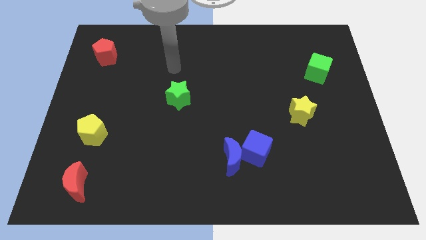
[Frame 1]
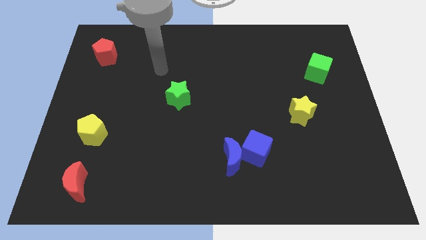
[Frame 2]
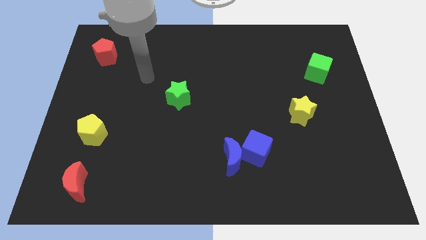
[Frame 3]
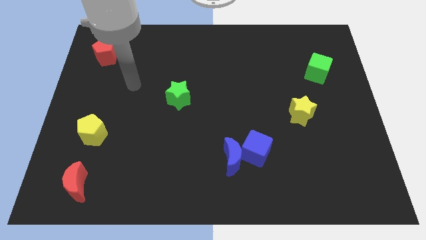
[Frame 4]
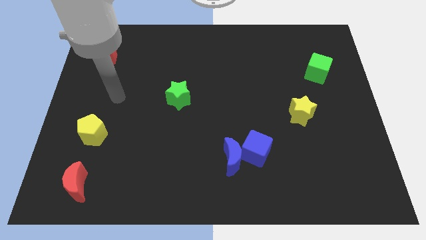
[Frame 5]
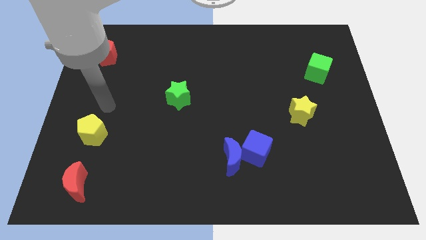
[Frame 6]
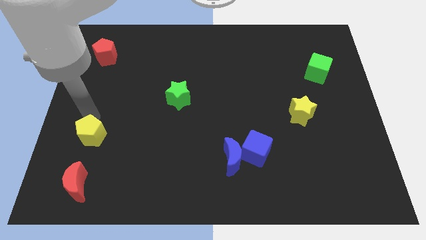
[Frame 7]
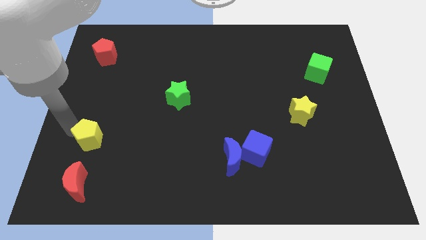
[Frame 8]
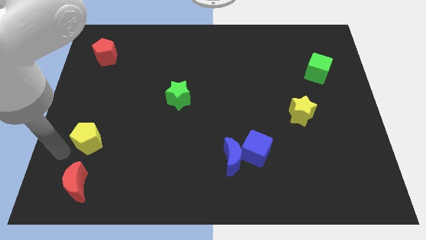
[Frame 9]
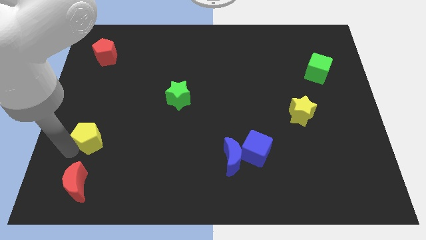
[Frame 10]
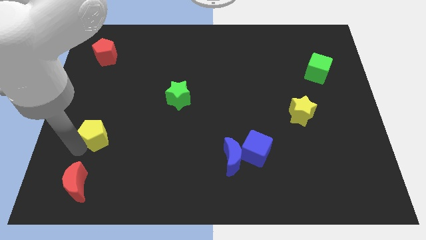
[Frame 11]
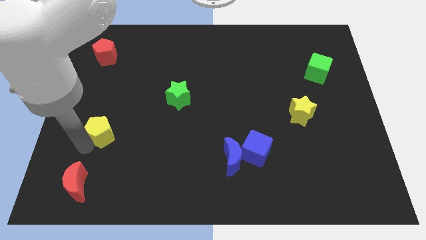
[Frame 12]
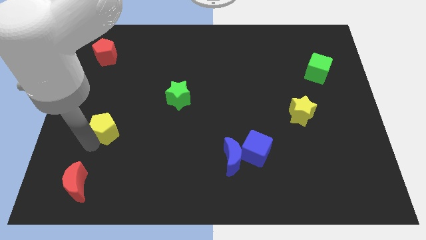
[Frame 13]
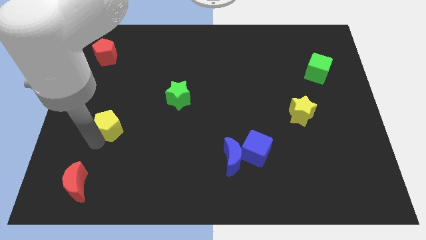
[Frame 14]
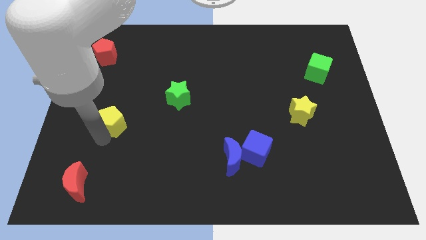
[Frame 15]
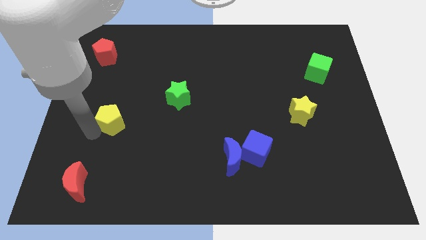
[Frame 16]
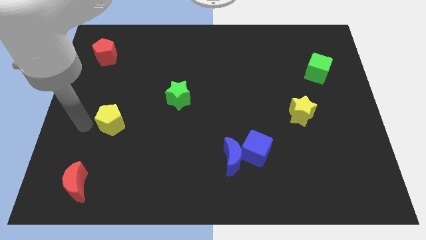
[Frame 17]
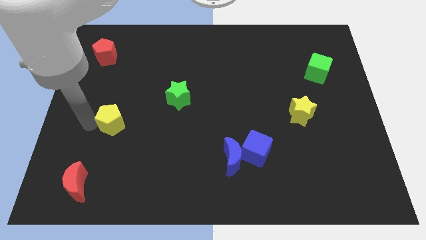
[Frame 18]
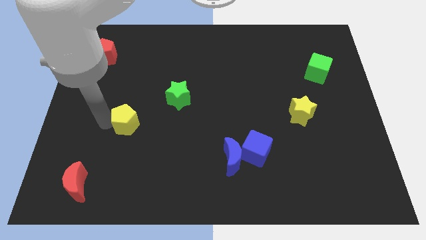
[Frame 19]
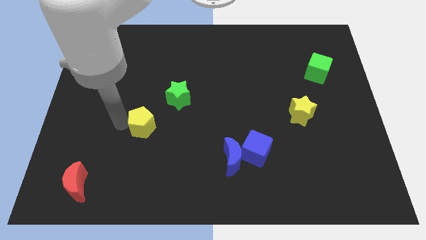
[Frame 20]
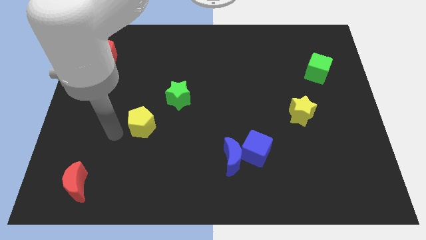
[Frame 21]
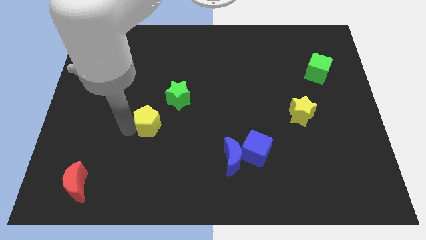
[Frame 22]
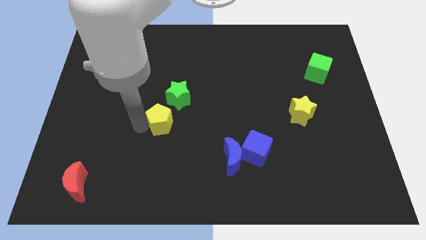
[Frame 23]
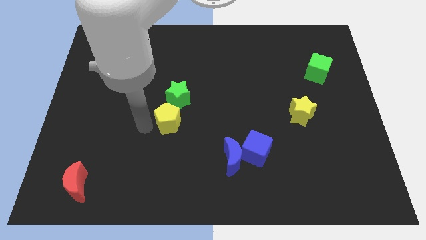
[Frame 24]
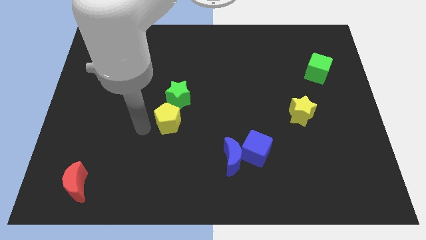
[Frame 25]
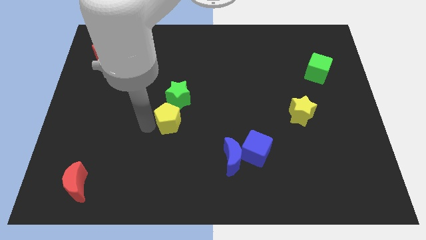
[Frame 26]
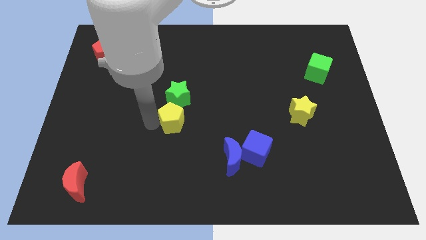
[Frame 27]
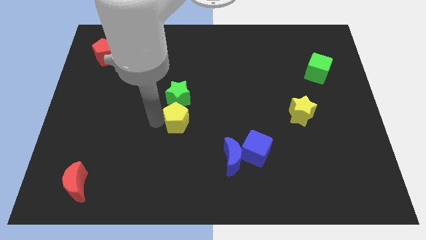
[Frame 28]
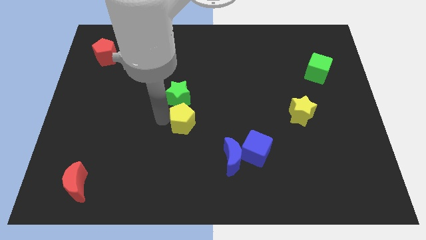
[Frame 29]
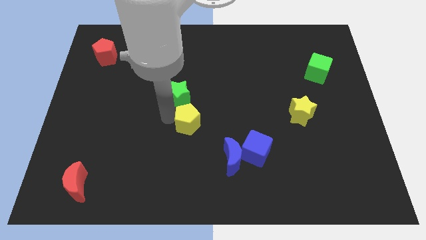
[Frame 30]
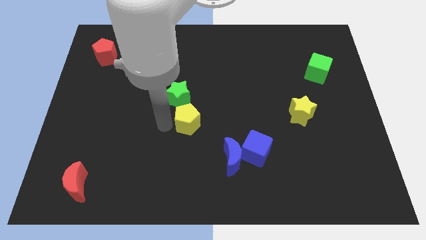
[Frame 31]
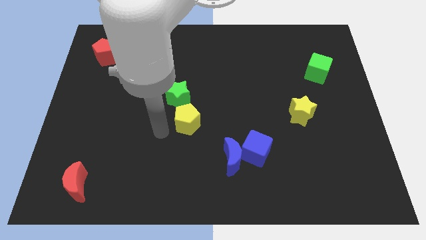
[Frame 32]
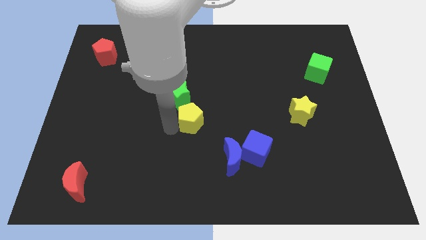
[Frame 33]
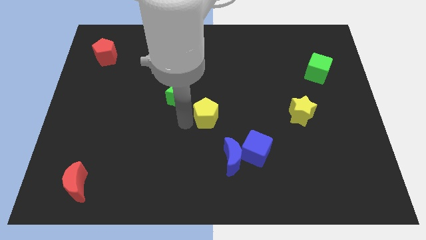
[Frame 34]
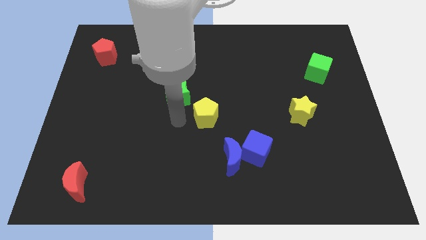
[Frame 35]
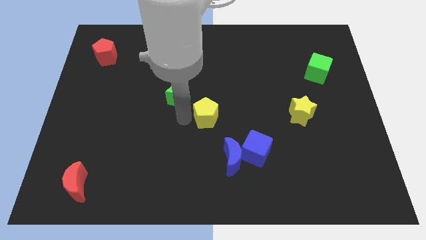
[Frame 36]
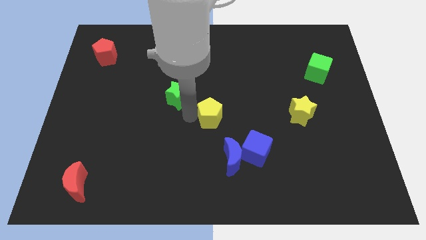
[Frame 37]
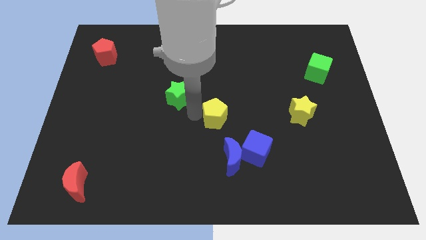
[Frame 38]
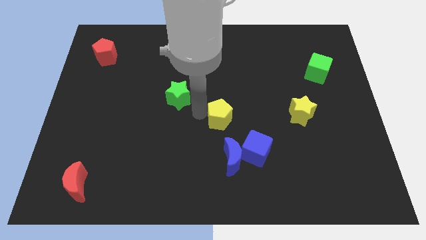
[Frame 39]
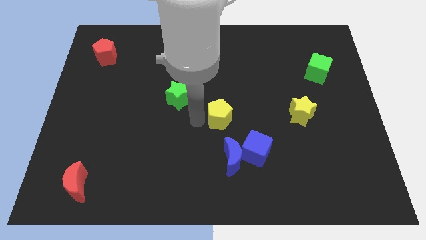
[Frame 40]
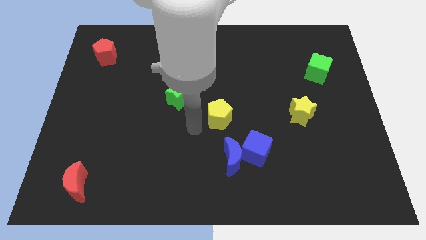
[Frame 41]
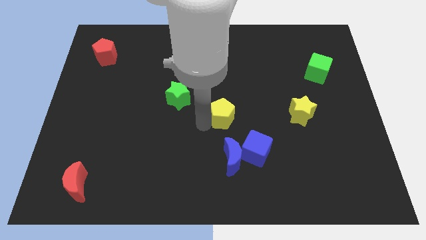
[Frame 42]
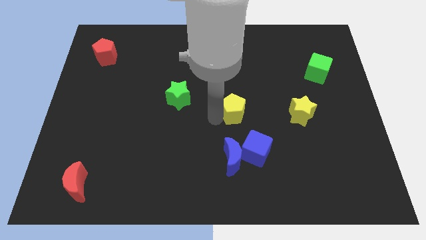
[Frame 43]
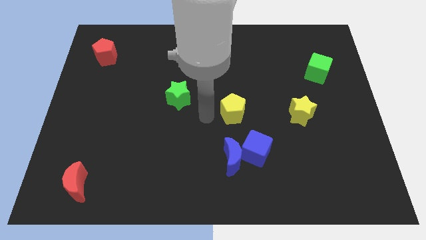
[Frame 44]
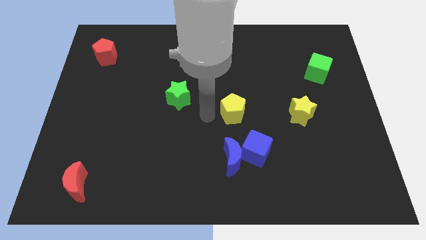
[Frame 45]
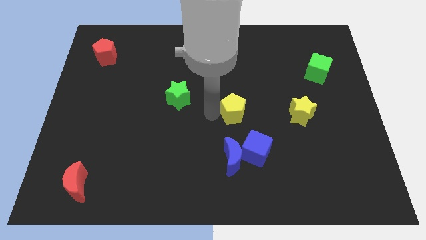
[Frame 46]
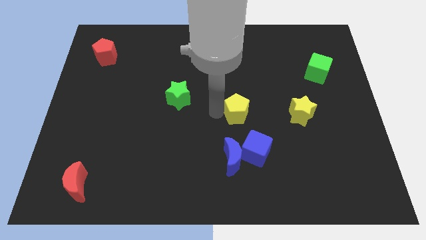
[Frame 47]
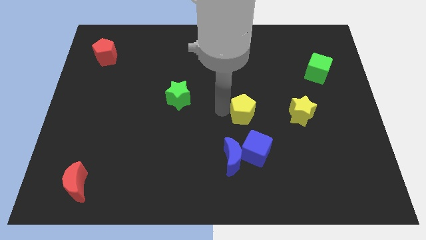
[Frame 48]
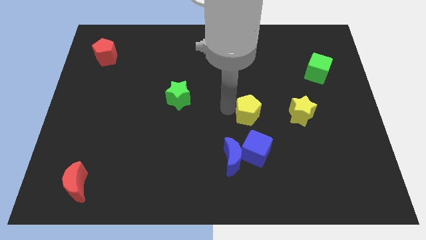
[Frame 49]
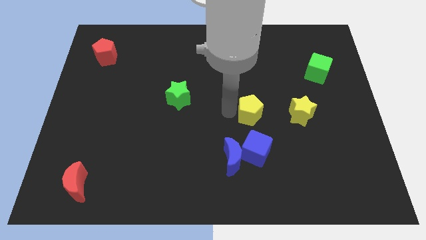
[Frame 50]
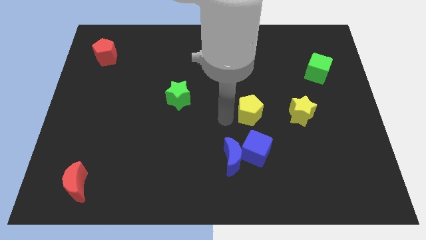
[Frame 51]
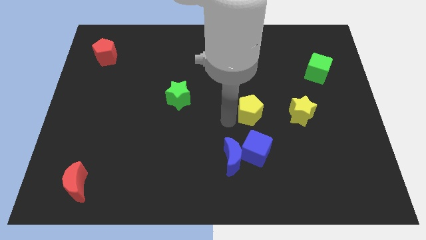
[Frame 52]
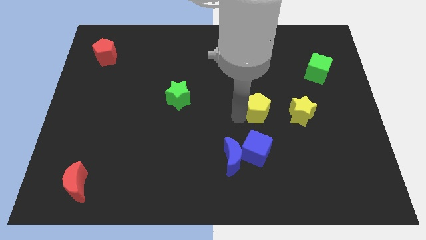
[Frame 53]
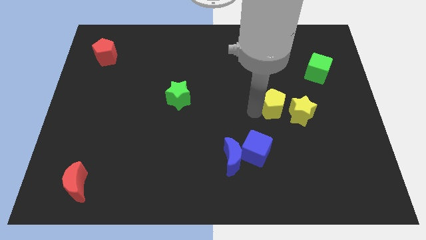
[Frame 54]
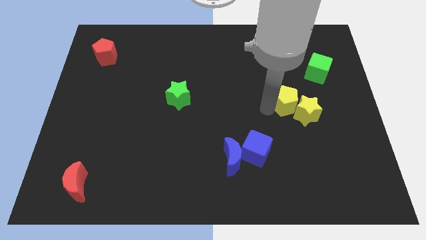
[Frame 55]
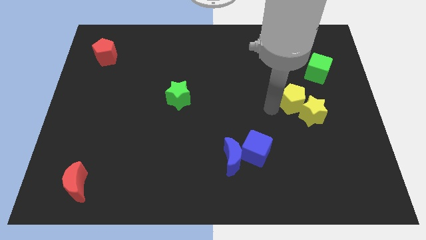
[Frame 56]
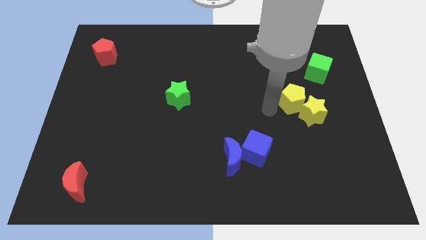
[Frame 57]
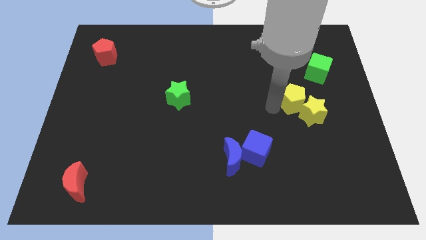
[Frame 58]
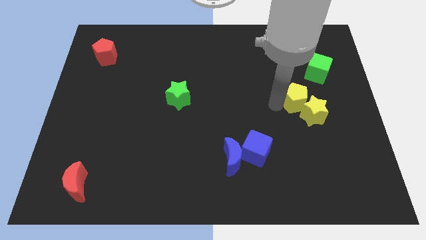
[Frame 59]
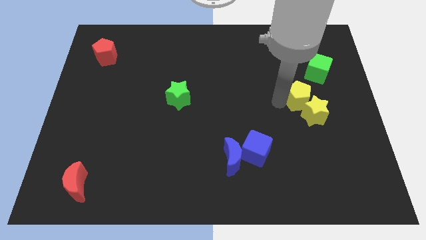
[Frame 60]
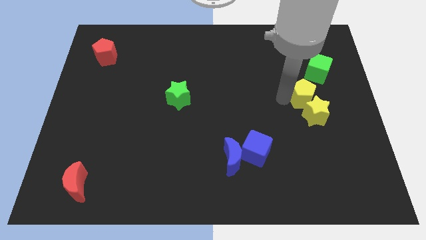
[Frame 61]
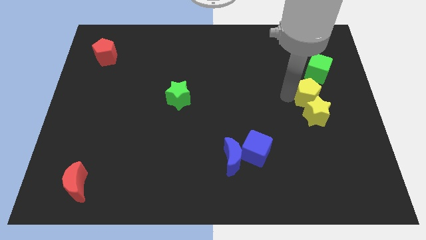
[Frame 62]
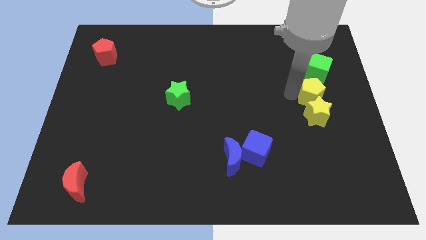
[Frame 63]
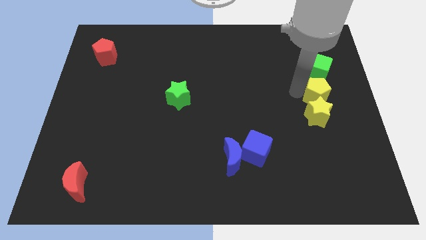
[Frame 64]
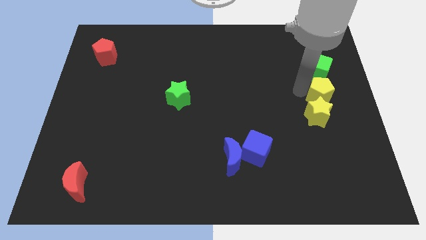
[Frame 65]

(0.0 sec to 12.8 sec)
push the yellow pentagon to the center right

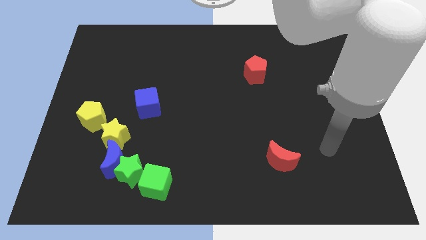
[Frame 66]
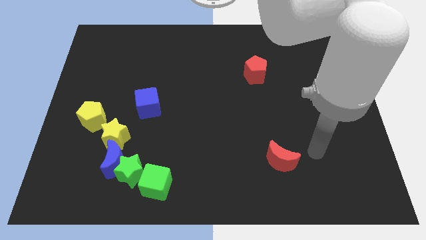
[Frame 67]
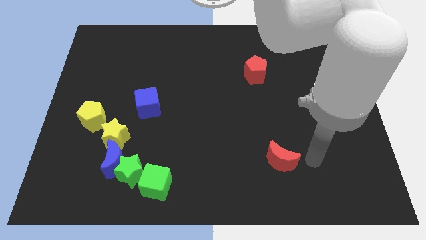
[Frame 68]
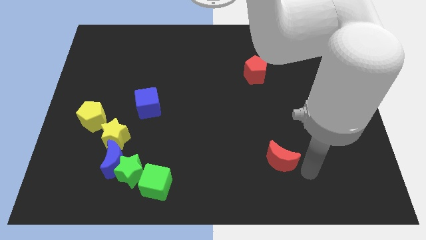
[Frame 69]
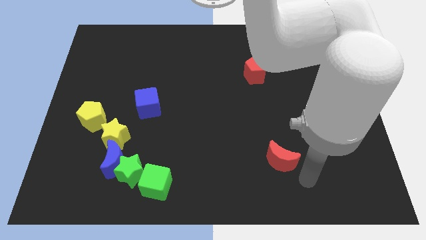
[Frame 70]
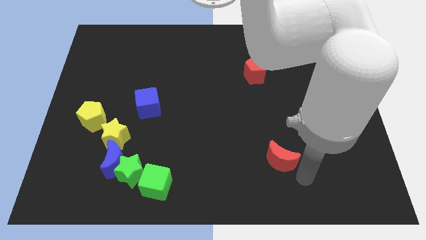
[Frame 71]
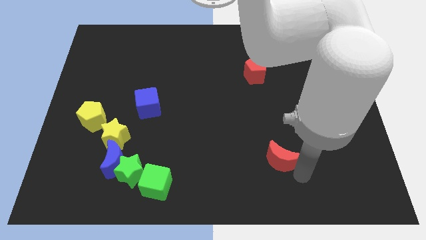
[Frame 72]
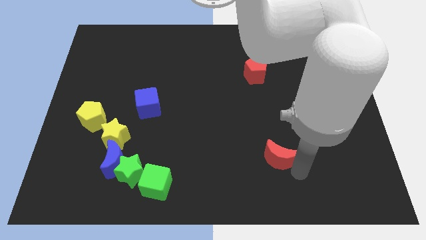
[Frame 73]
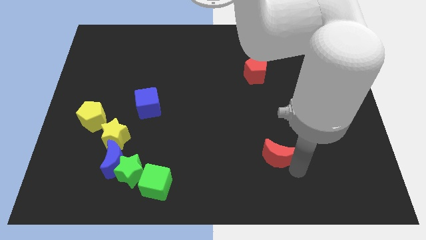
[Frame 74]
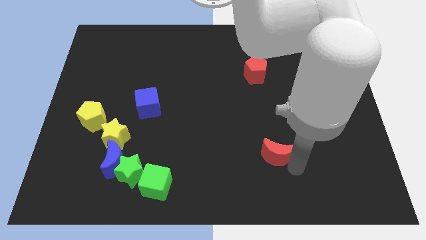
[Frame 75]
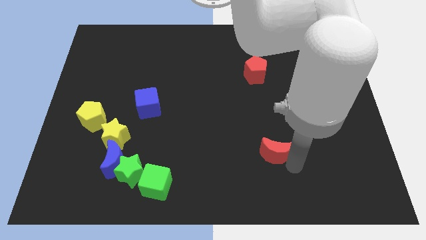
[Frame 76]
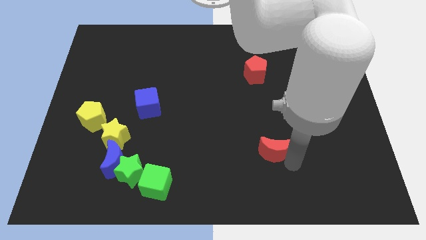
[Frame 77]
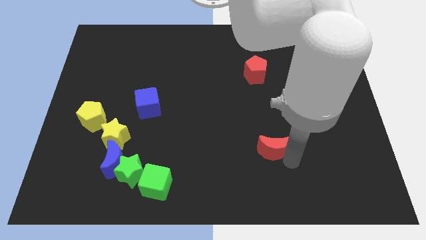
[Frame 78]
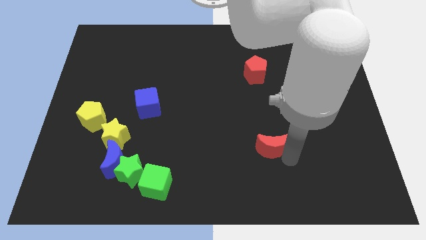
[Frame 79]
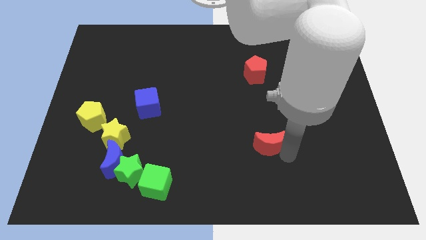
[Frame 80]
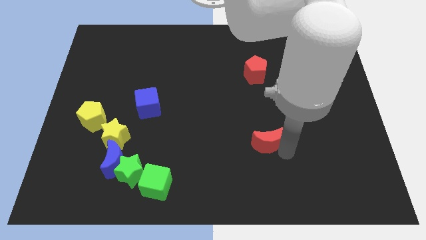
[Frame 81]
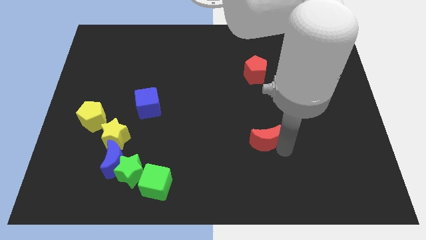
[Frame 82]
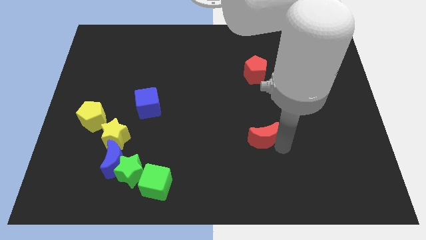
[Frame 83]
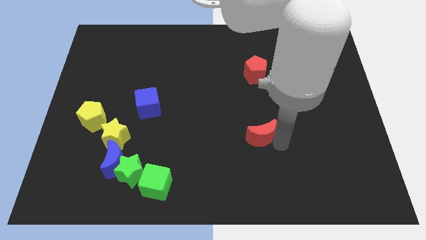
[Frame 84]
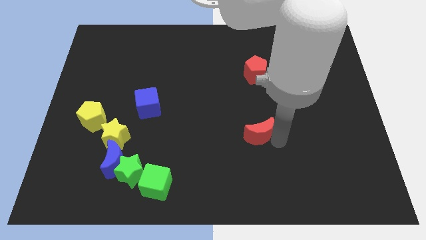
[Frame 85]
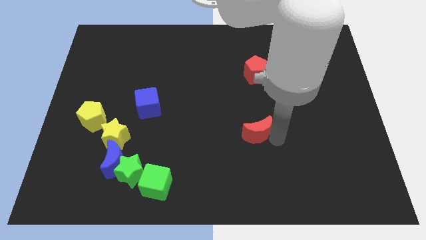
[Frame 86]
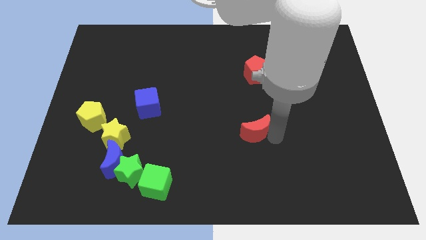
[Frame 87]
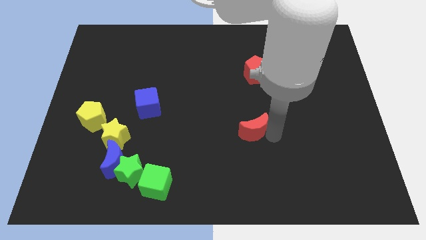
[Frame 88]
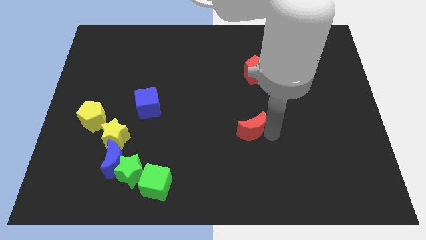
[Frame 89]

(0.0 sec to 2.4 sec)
move the red moon to the center of the board
